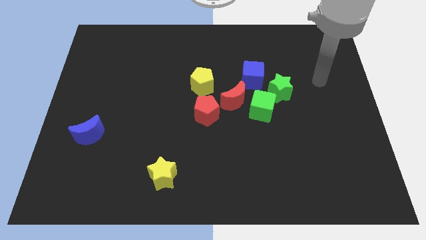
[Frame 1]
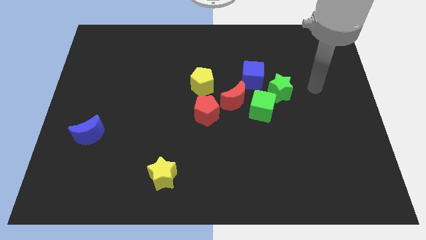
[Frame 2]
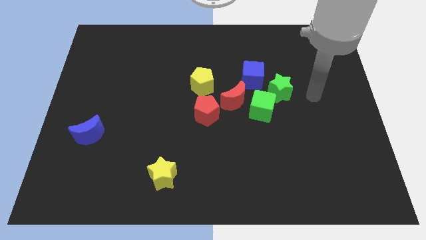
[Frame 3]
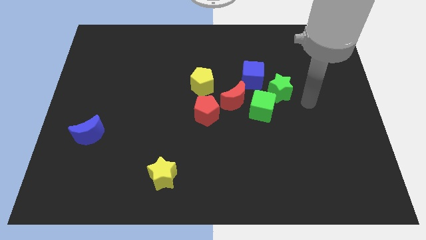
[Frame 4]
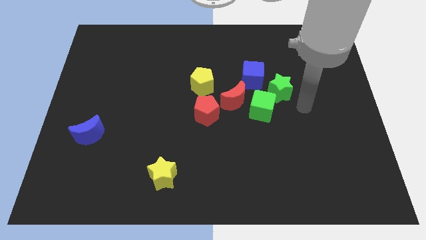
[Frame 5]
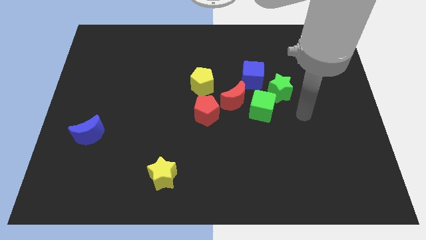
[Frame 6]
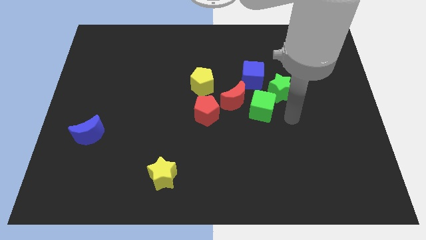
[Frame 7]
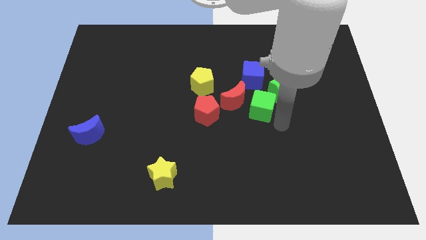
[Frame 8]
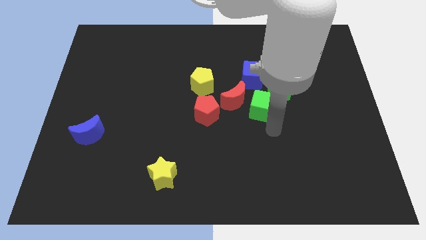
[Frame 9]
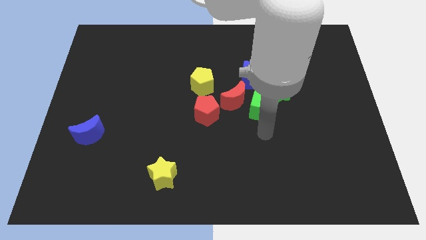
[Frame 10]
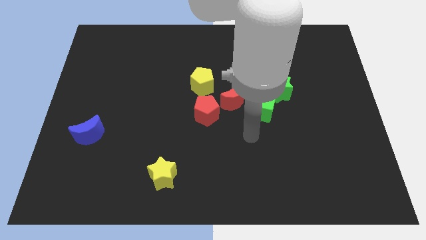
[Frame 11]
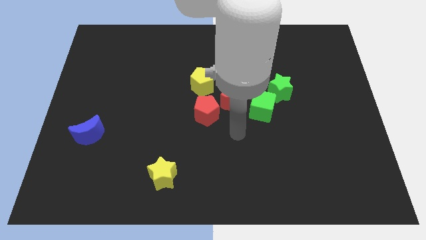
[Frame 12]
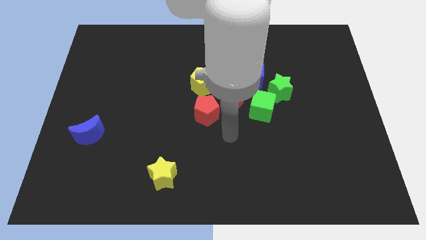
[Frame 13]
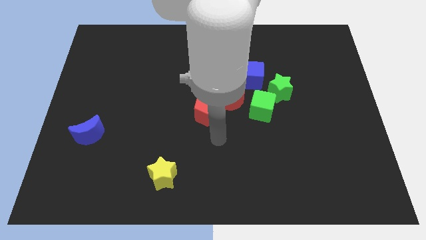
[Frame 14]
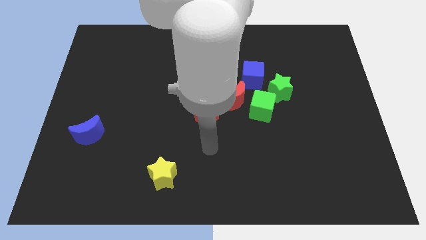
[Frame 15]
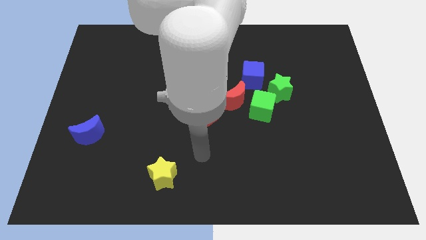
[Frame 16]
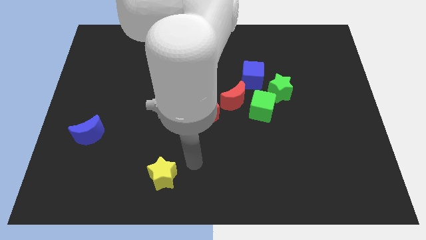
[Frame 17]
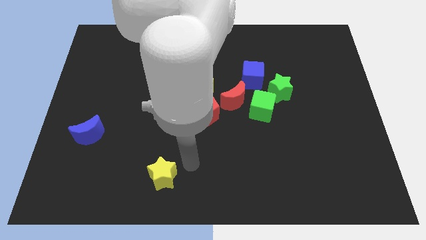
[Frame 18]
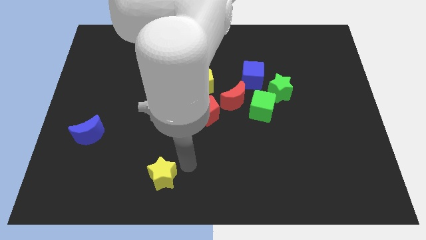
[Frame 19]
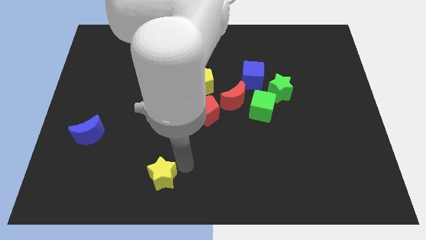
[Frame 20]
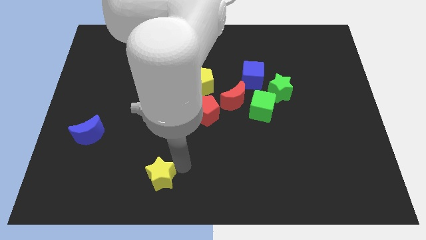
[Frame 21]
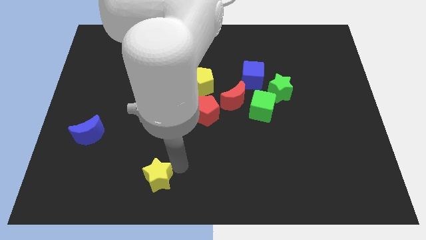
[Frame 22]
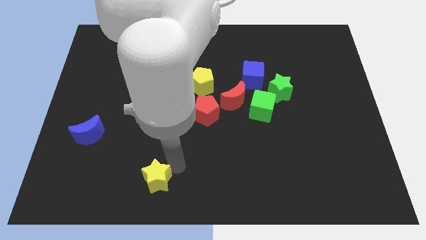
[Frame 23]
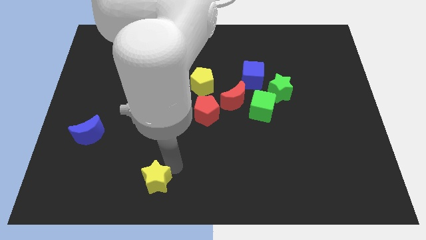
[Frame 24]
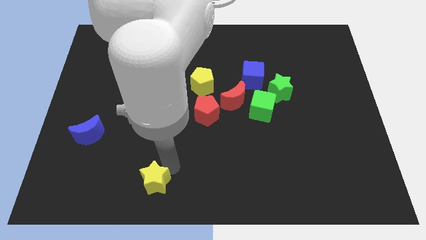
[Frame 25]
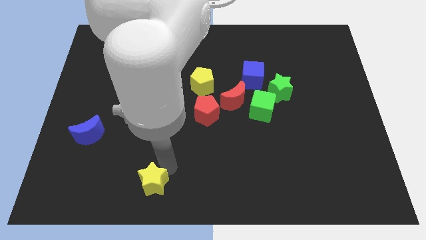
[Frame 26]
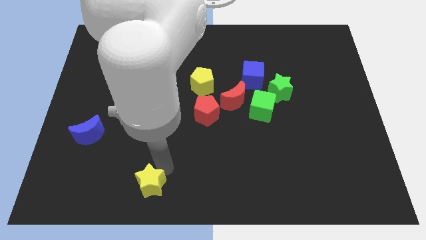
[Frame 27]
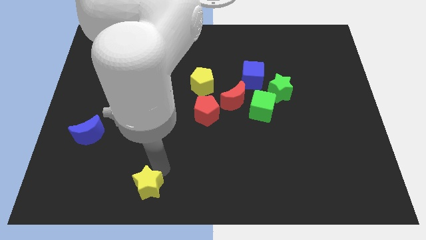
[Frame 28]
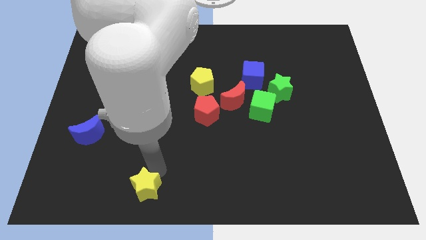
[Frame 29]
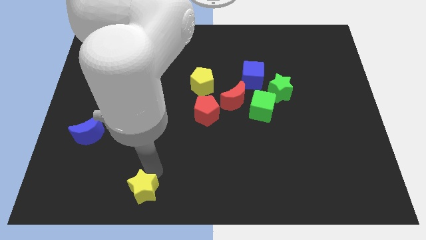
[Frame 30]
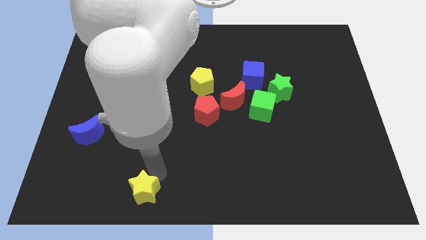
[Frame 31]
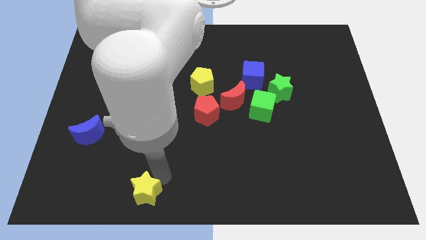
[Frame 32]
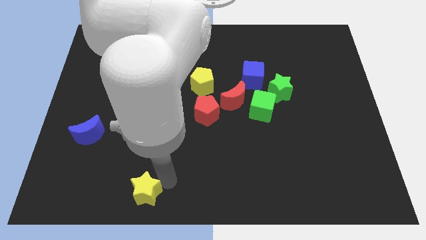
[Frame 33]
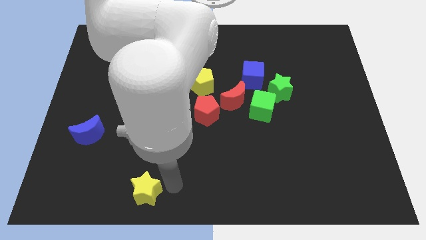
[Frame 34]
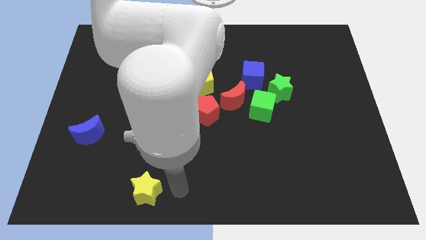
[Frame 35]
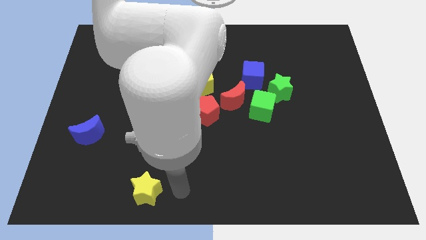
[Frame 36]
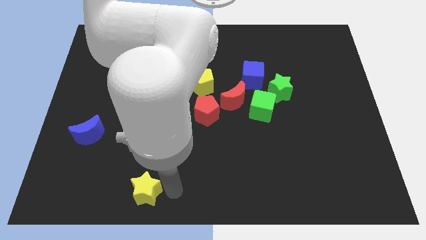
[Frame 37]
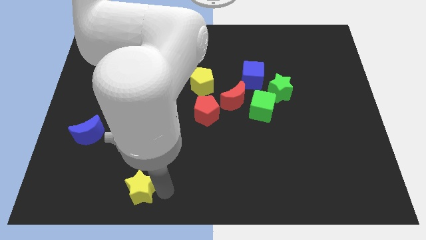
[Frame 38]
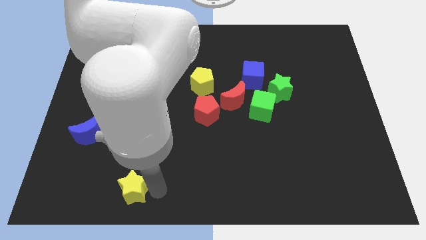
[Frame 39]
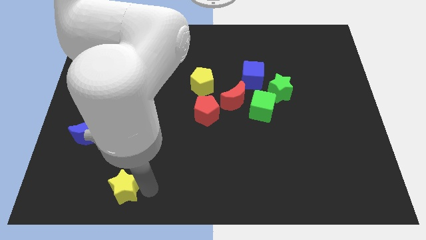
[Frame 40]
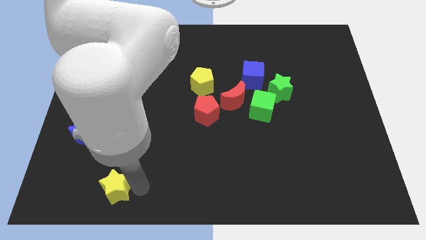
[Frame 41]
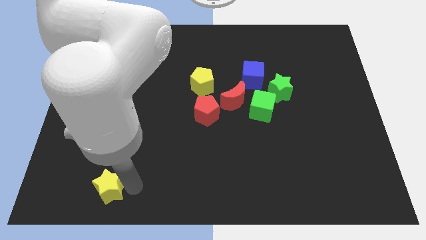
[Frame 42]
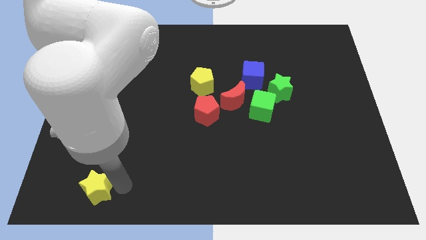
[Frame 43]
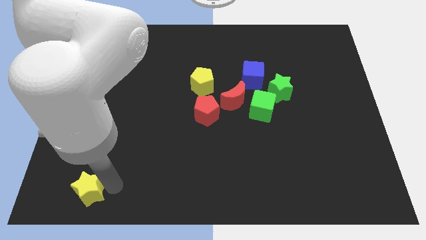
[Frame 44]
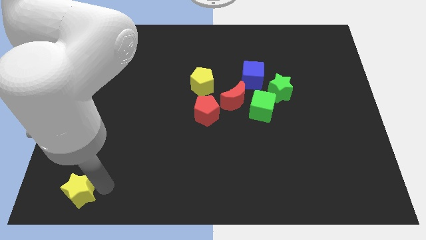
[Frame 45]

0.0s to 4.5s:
push the yellow star to the lower left corner

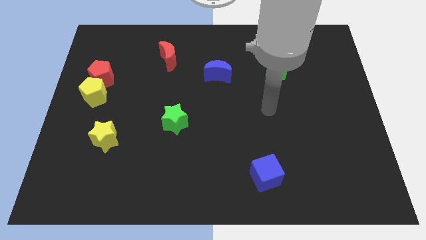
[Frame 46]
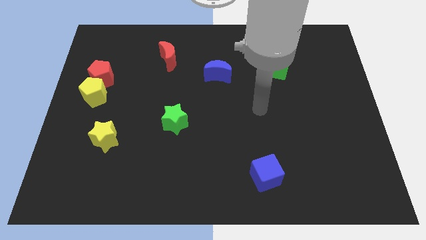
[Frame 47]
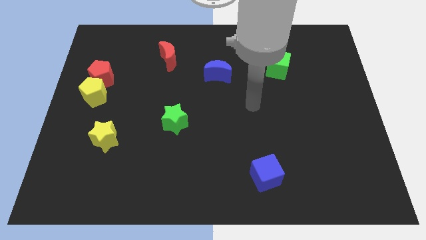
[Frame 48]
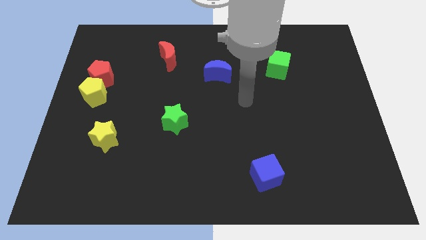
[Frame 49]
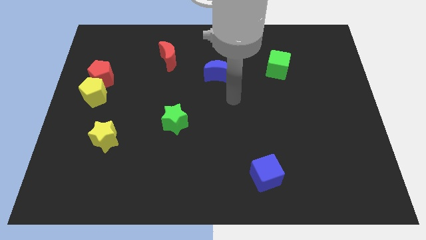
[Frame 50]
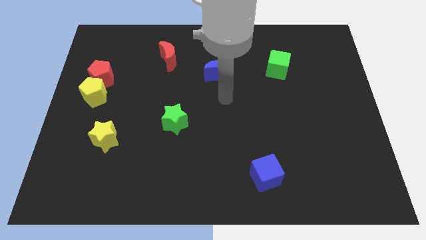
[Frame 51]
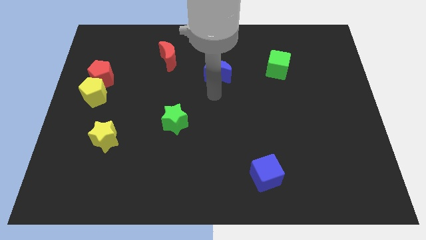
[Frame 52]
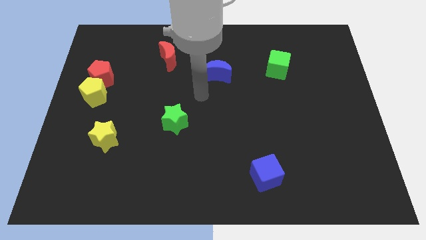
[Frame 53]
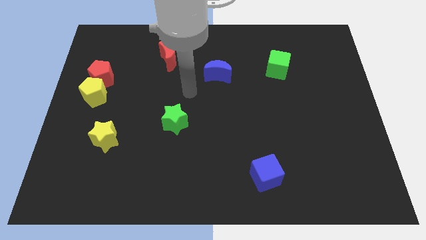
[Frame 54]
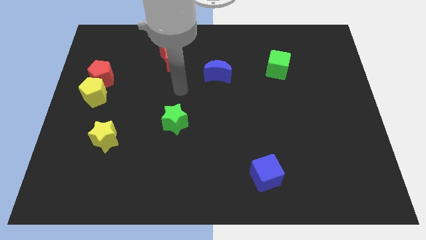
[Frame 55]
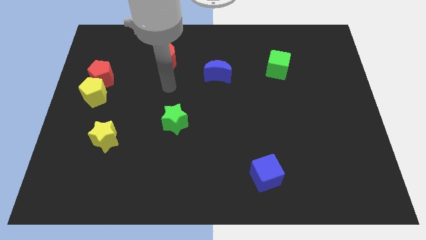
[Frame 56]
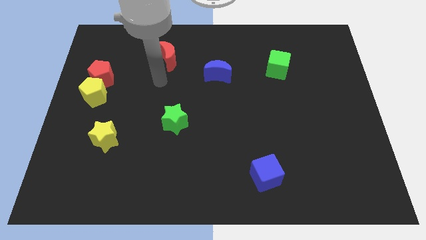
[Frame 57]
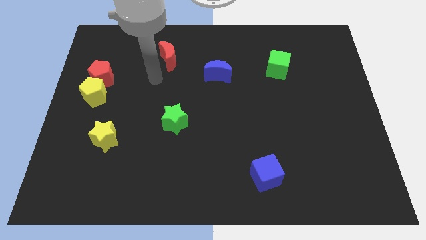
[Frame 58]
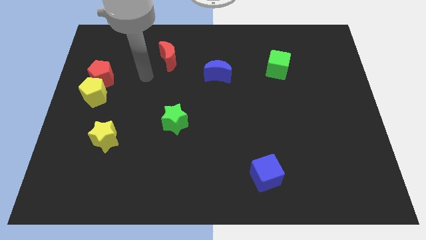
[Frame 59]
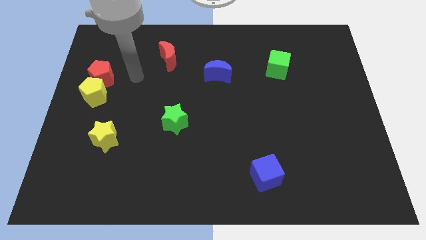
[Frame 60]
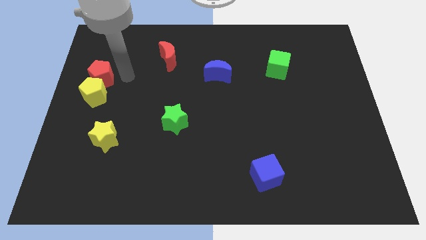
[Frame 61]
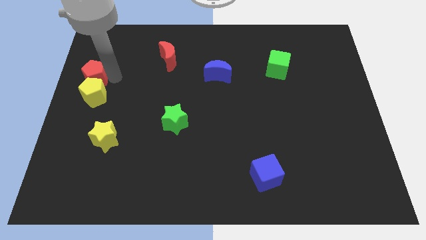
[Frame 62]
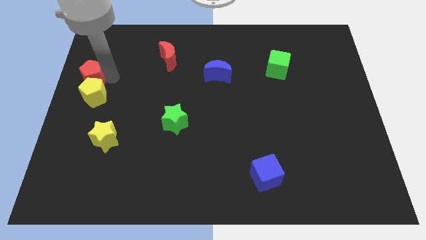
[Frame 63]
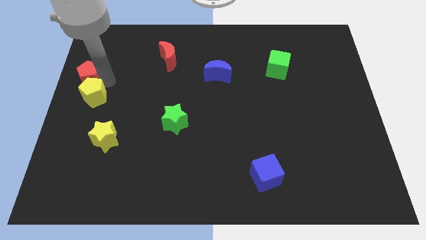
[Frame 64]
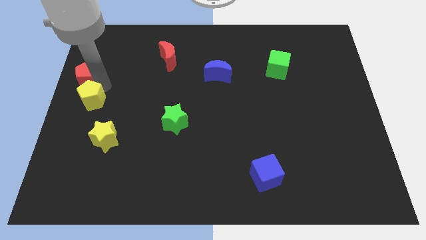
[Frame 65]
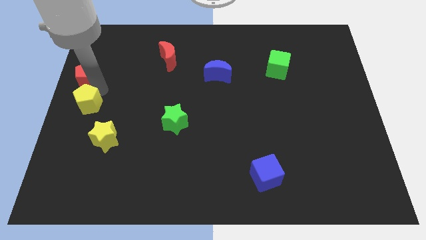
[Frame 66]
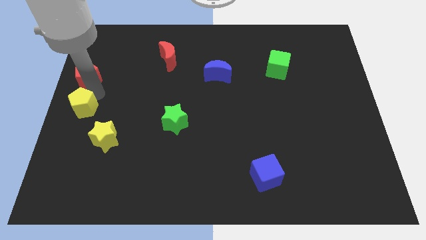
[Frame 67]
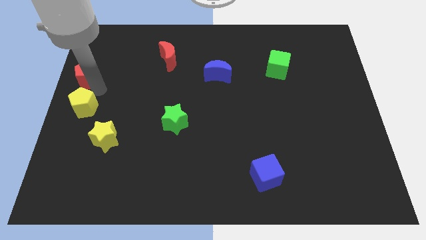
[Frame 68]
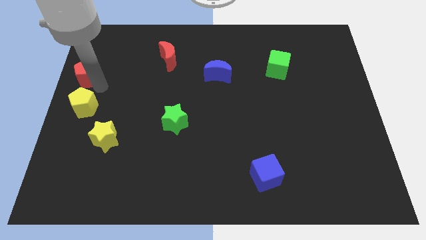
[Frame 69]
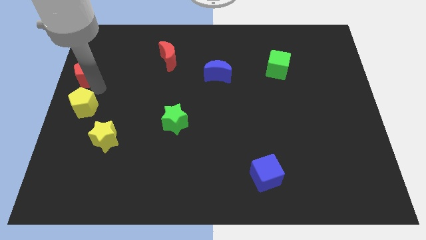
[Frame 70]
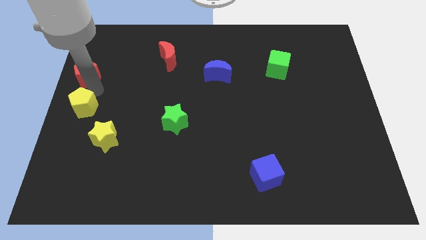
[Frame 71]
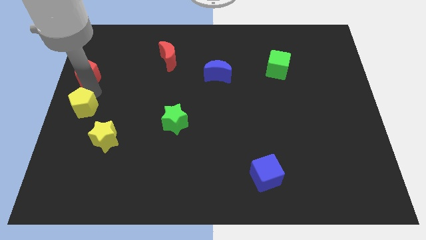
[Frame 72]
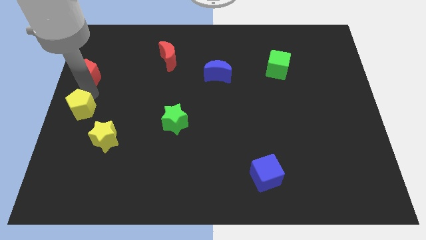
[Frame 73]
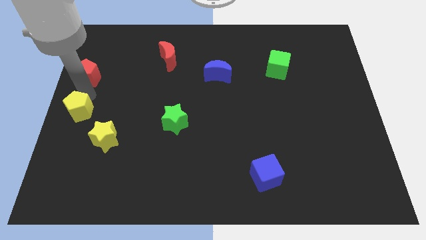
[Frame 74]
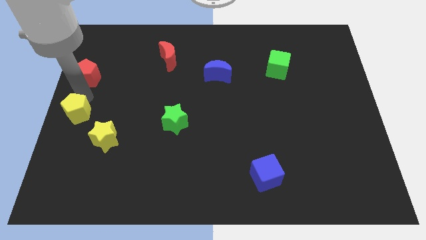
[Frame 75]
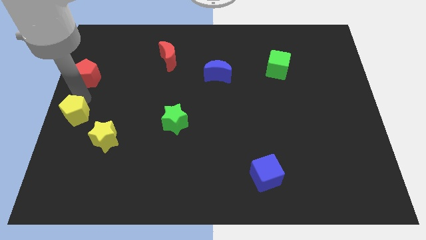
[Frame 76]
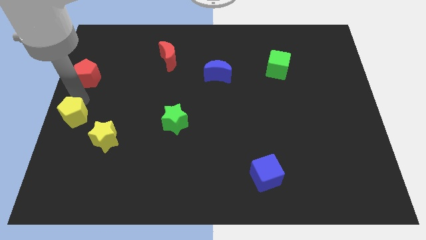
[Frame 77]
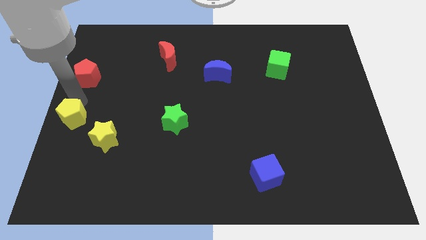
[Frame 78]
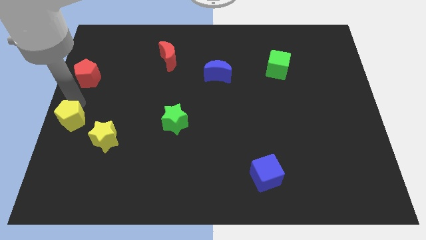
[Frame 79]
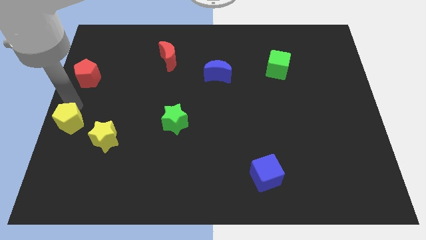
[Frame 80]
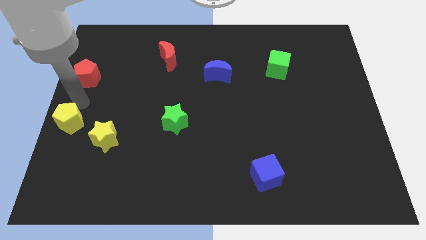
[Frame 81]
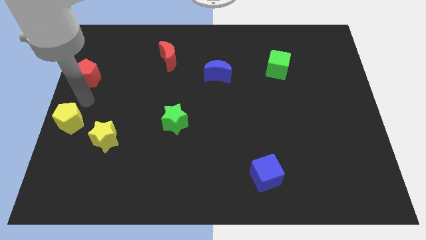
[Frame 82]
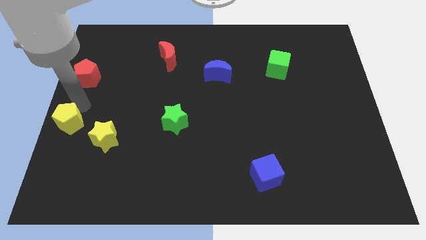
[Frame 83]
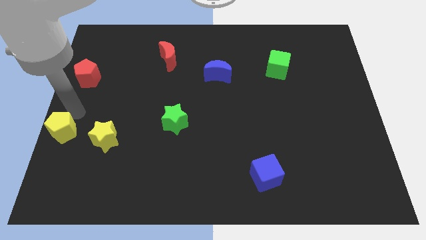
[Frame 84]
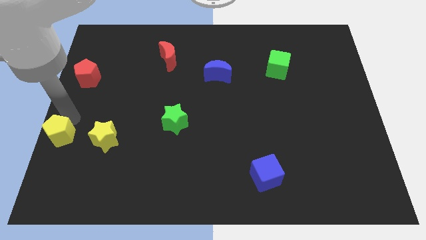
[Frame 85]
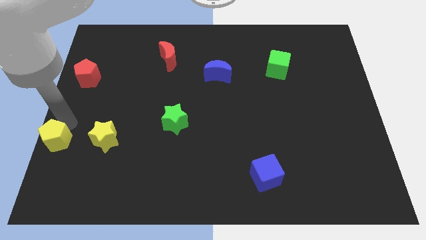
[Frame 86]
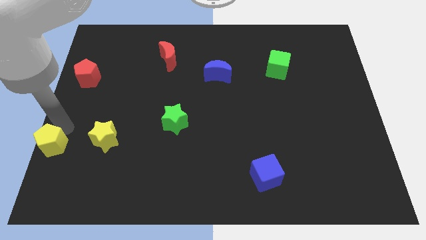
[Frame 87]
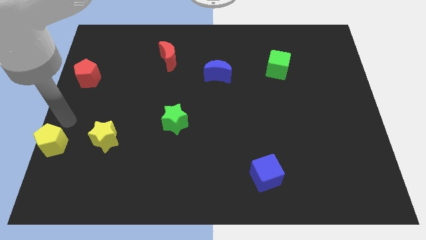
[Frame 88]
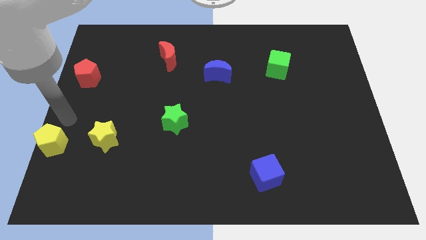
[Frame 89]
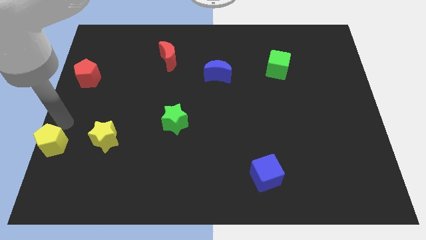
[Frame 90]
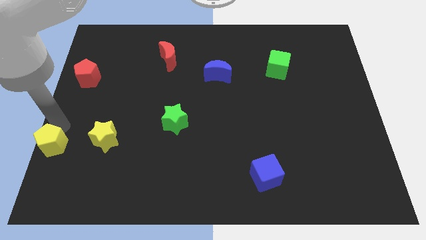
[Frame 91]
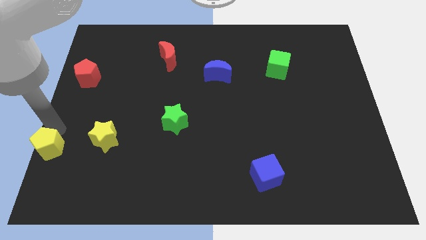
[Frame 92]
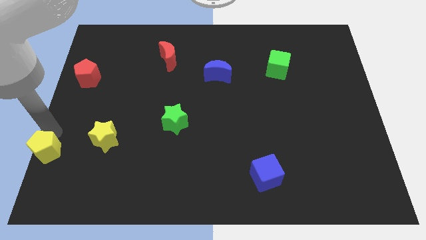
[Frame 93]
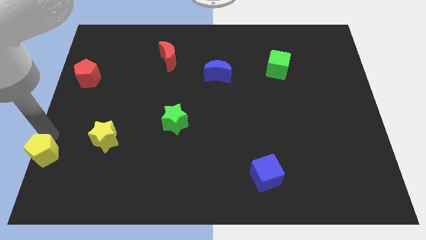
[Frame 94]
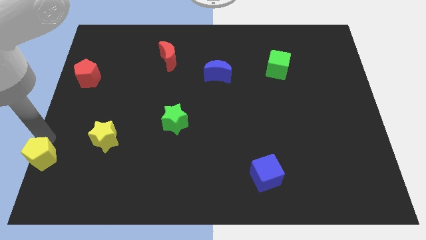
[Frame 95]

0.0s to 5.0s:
put the yellow pentagon to the bottom left of the board
